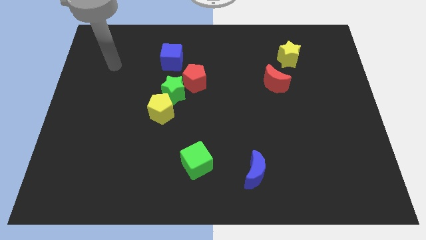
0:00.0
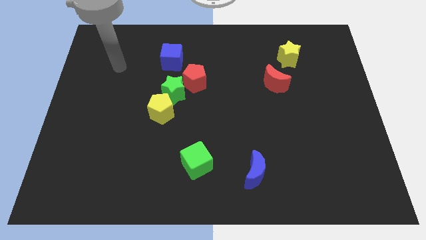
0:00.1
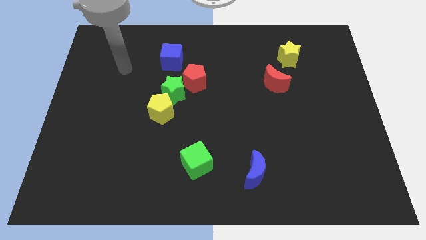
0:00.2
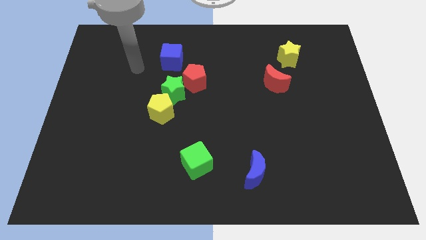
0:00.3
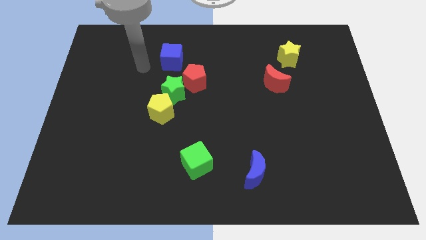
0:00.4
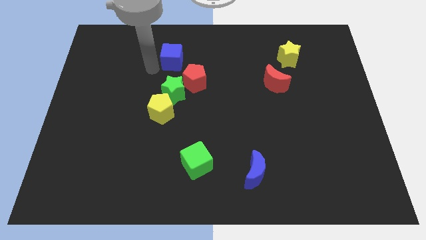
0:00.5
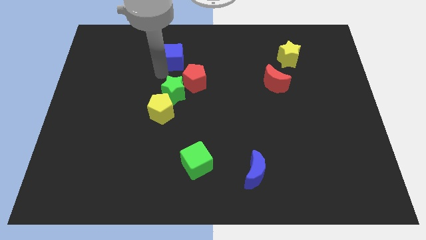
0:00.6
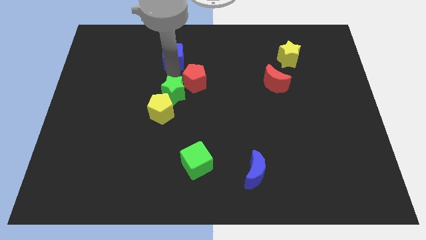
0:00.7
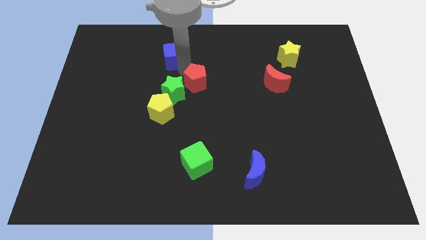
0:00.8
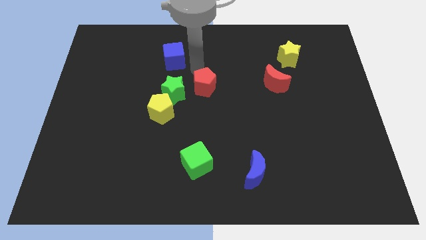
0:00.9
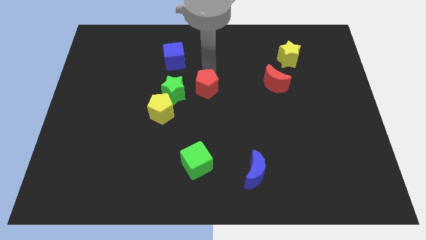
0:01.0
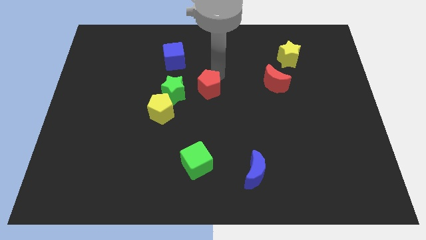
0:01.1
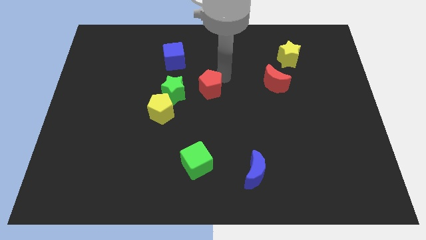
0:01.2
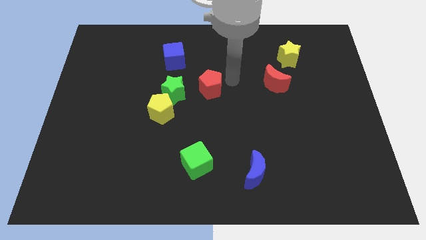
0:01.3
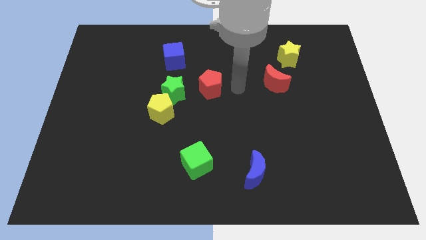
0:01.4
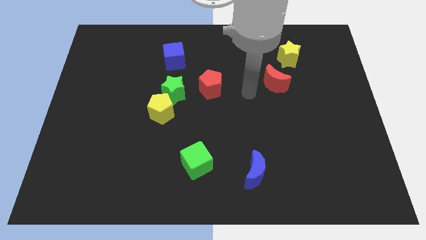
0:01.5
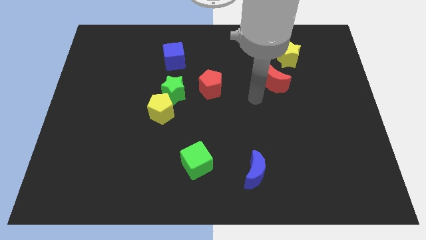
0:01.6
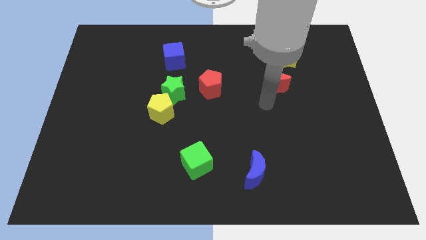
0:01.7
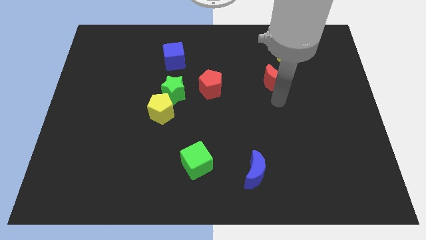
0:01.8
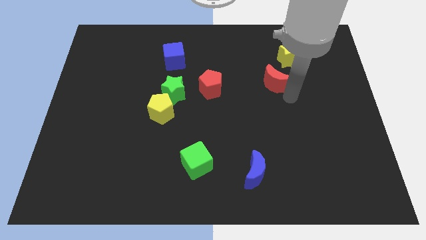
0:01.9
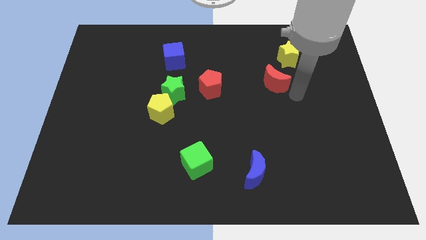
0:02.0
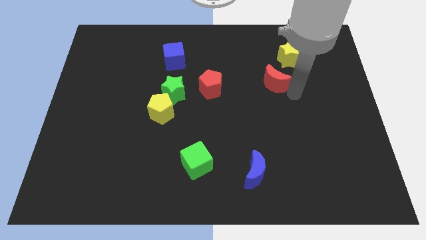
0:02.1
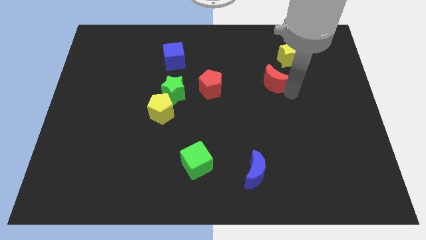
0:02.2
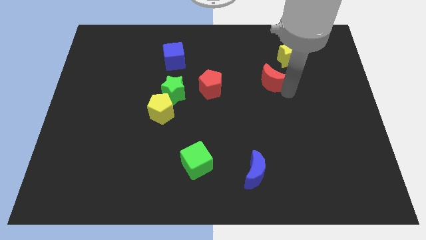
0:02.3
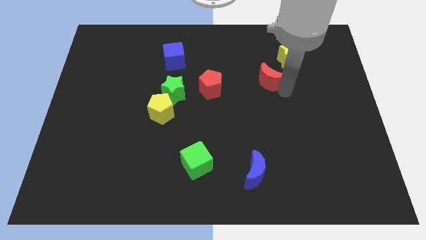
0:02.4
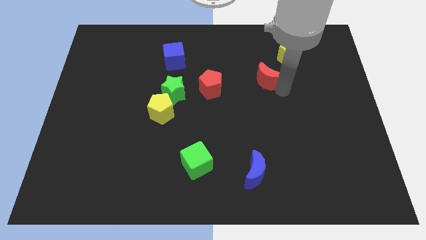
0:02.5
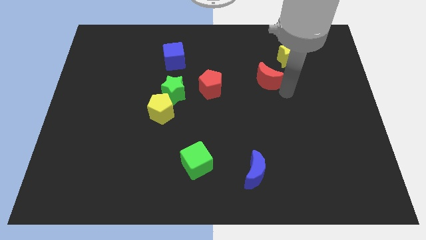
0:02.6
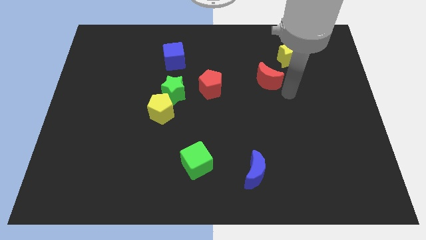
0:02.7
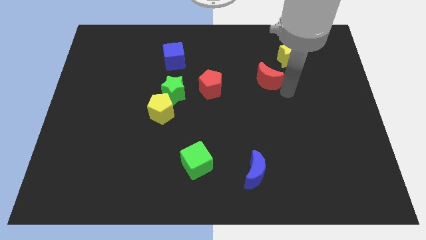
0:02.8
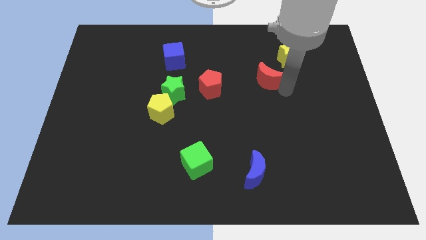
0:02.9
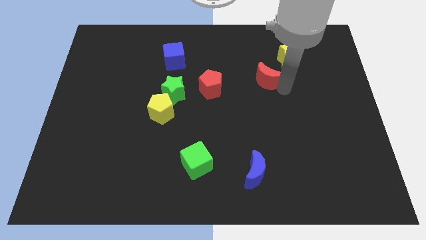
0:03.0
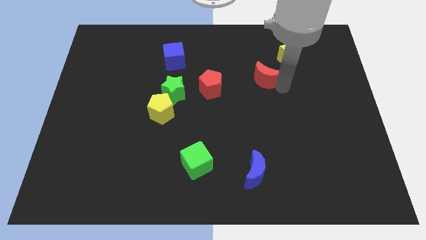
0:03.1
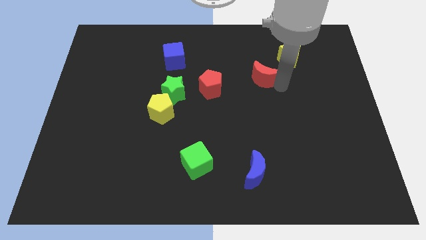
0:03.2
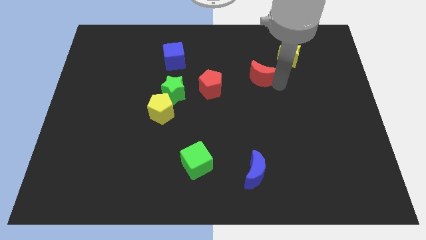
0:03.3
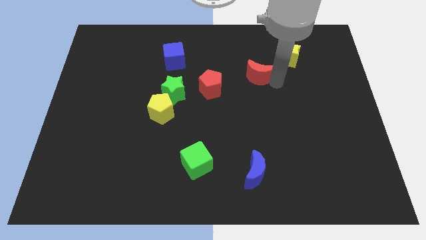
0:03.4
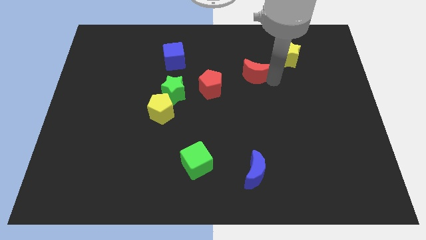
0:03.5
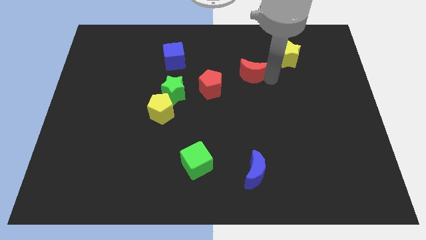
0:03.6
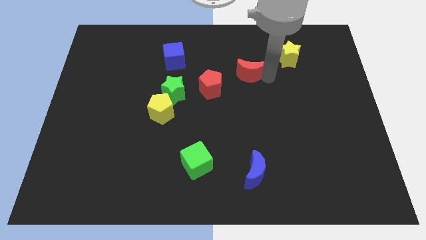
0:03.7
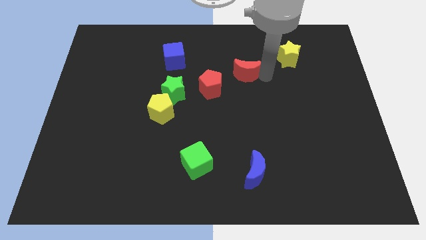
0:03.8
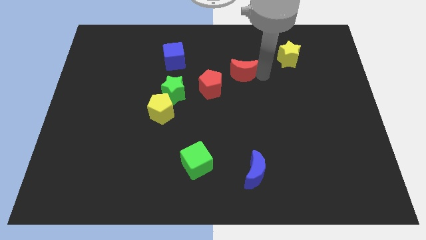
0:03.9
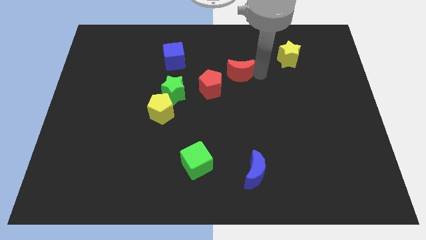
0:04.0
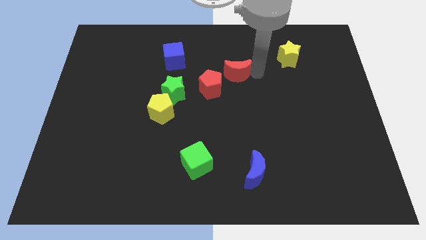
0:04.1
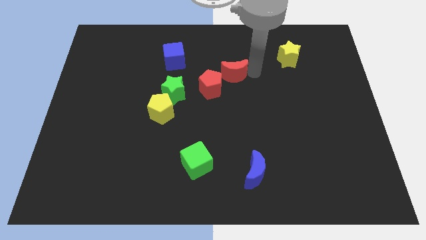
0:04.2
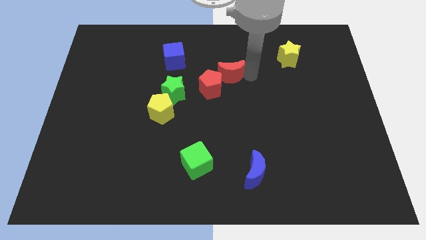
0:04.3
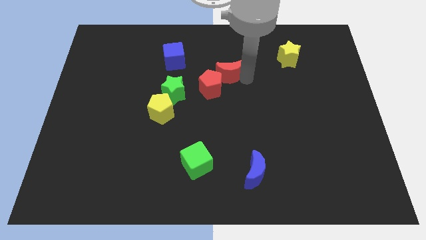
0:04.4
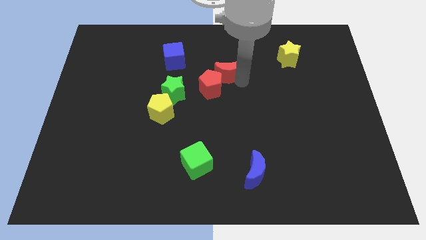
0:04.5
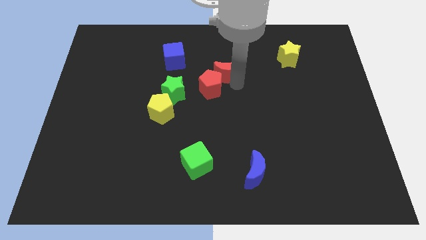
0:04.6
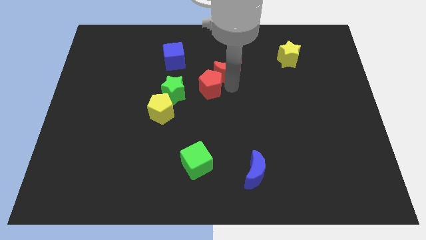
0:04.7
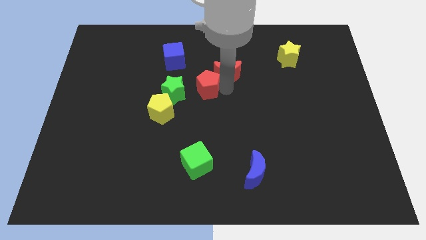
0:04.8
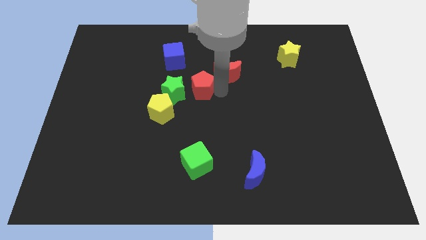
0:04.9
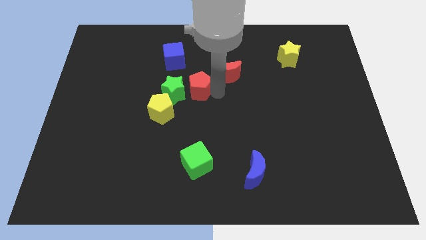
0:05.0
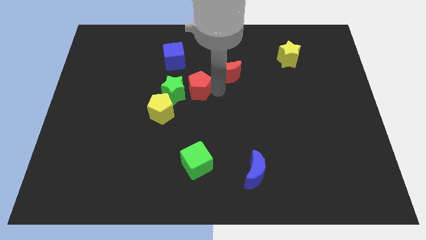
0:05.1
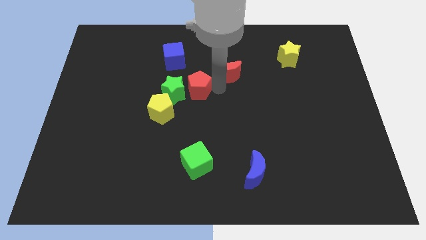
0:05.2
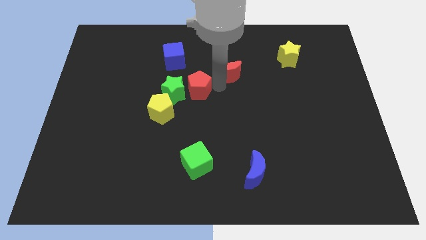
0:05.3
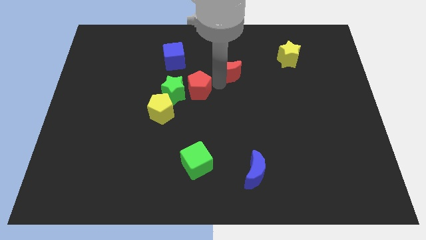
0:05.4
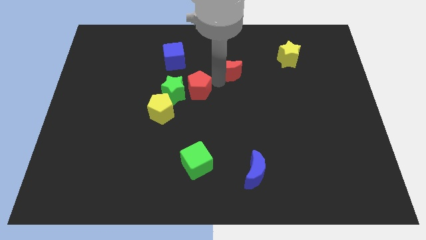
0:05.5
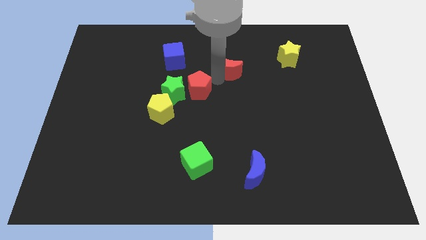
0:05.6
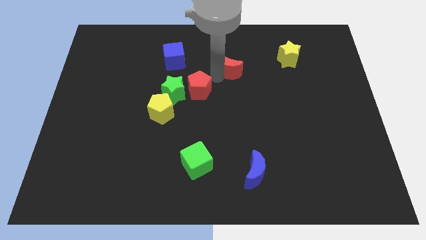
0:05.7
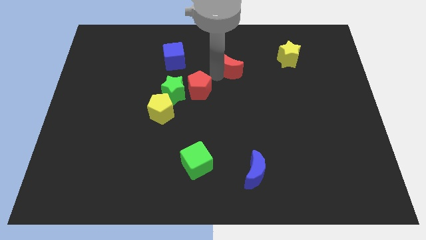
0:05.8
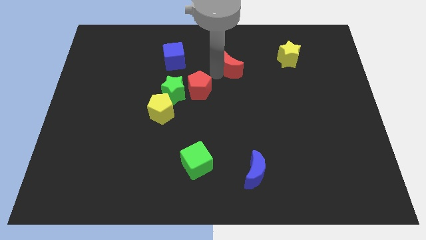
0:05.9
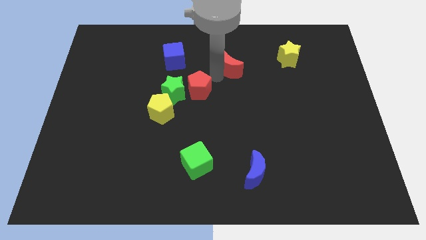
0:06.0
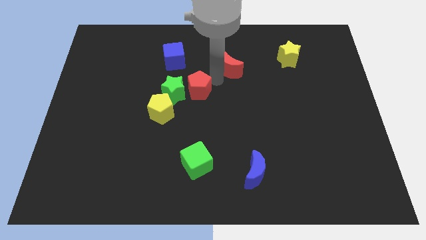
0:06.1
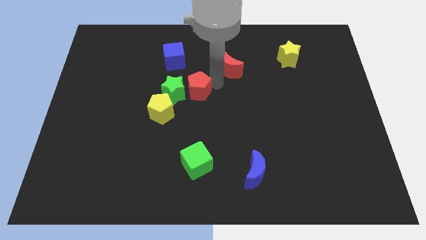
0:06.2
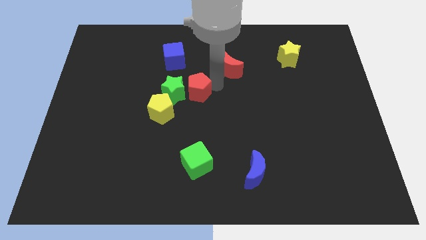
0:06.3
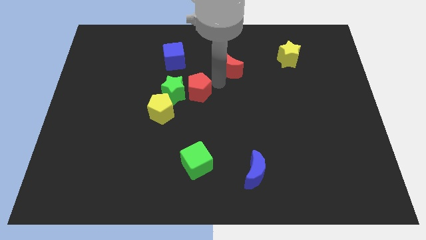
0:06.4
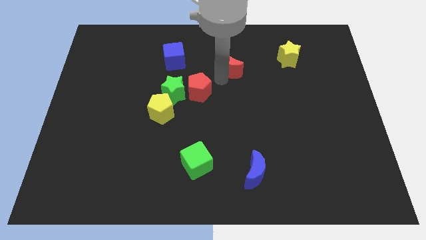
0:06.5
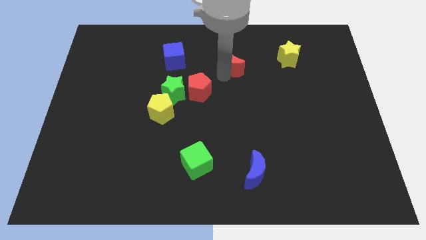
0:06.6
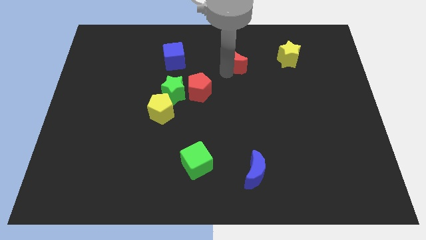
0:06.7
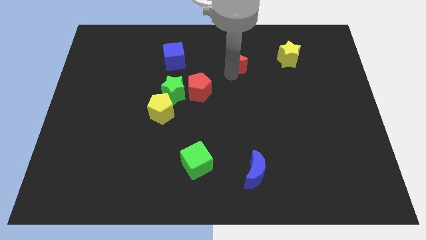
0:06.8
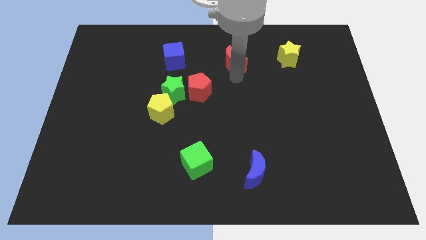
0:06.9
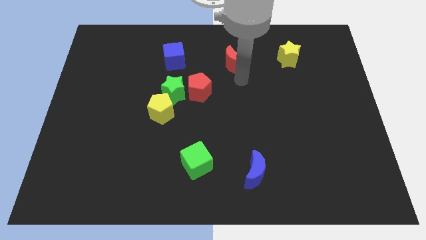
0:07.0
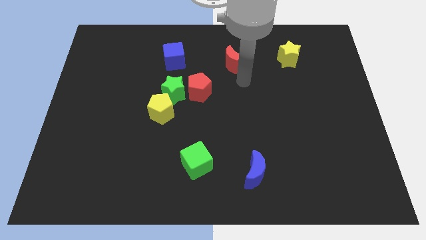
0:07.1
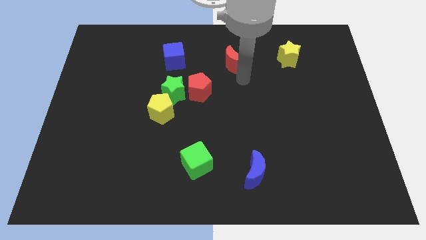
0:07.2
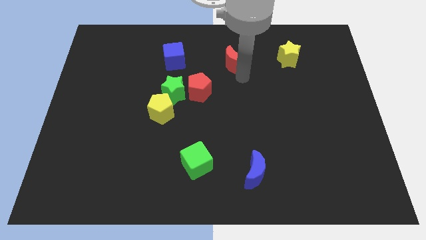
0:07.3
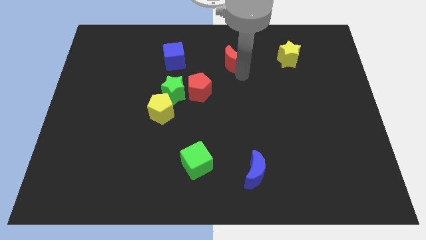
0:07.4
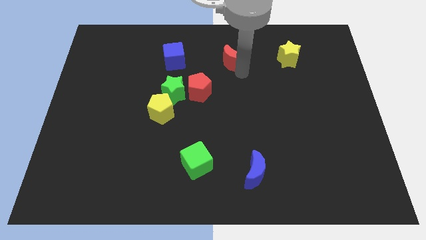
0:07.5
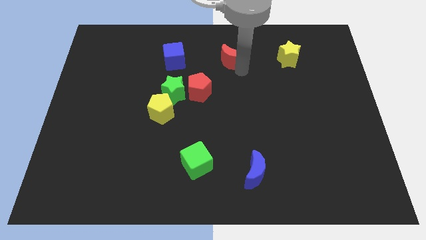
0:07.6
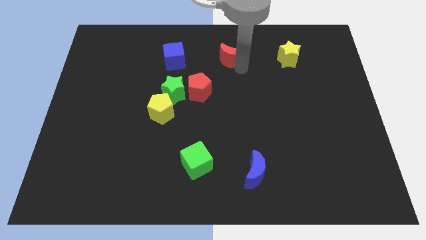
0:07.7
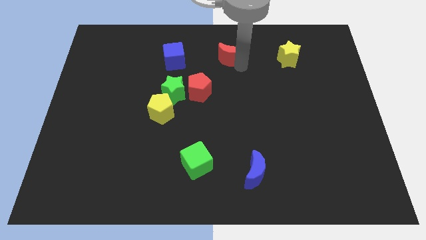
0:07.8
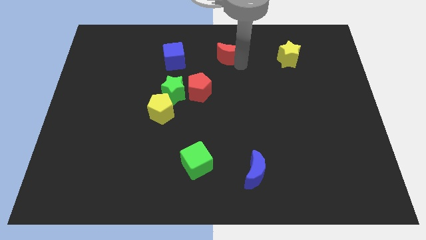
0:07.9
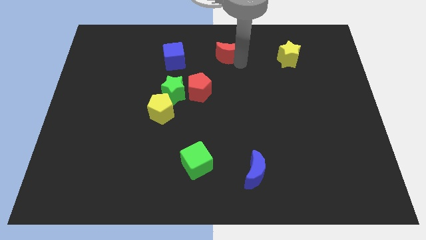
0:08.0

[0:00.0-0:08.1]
push the red moon to the top side
